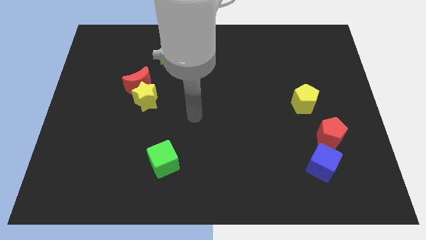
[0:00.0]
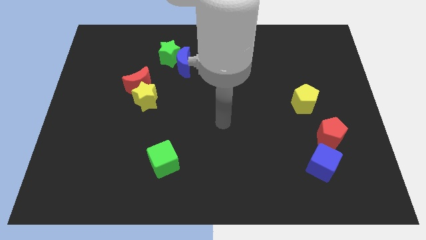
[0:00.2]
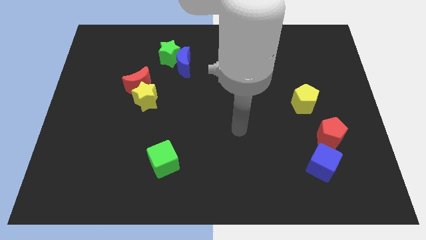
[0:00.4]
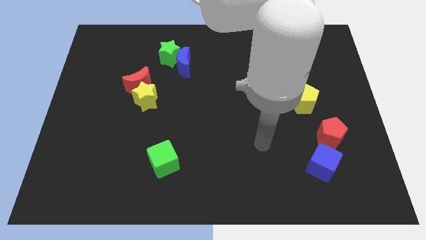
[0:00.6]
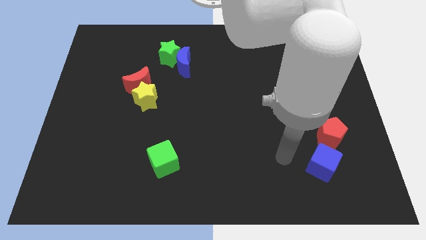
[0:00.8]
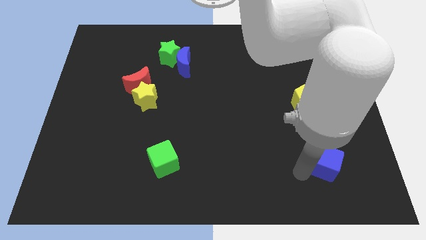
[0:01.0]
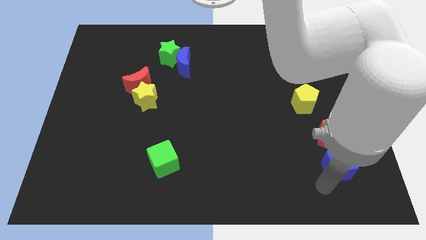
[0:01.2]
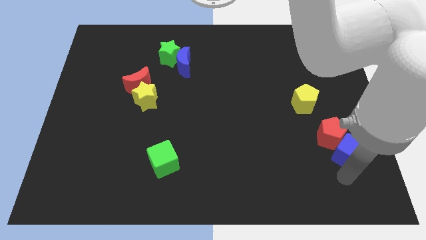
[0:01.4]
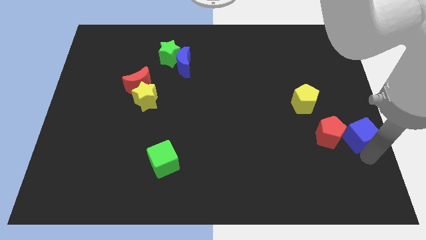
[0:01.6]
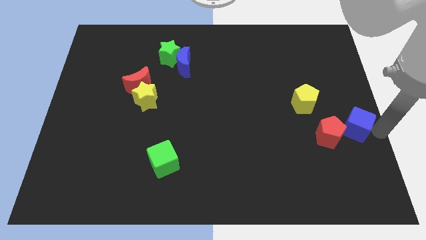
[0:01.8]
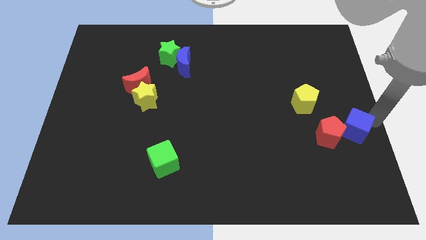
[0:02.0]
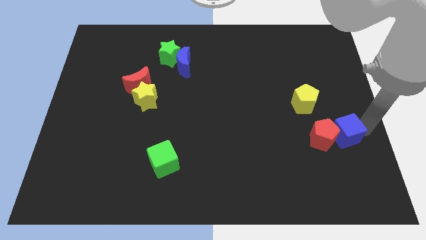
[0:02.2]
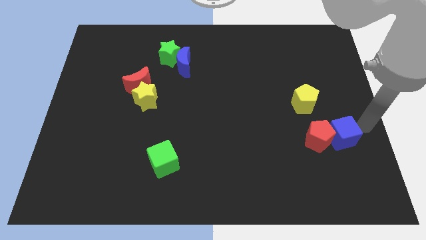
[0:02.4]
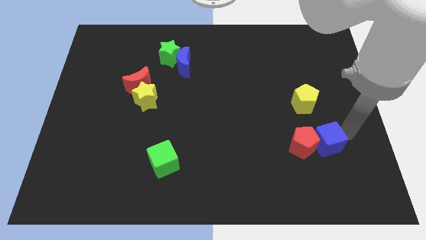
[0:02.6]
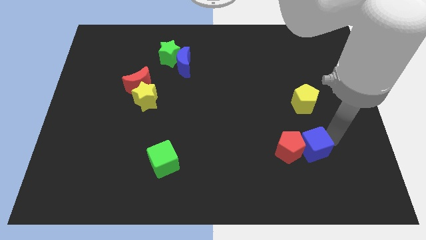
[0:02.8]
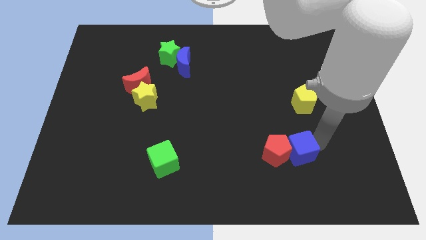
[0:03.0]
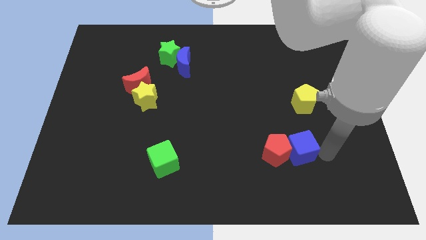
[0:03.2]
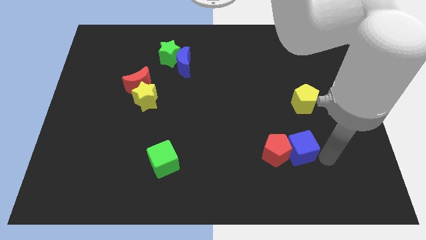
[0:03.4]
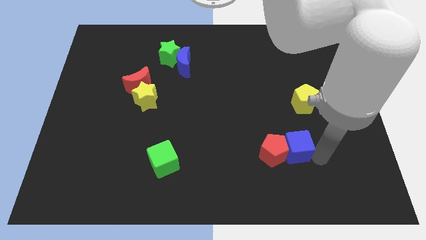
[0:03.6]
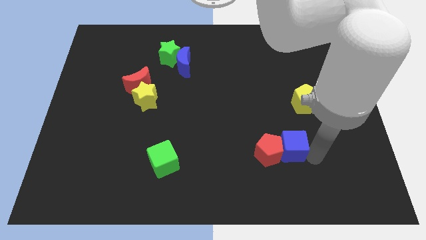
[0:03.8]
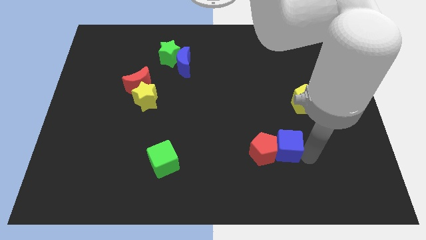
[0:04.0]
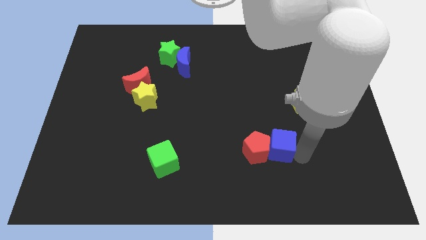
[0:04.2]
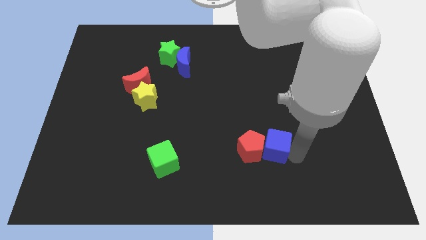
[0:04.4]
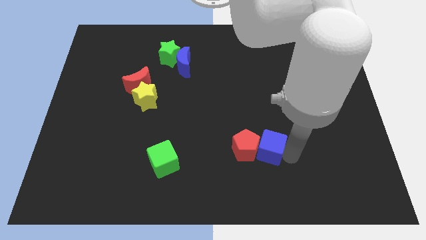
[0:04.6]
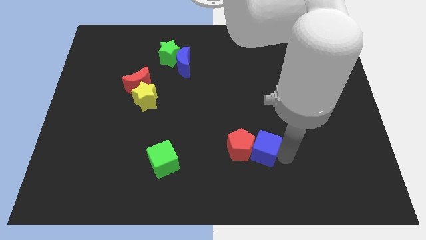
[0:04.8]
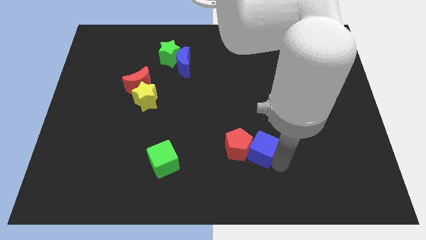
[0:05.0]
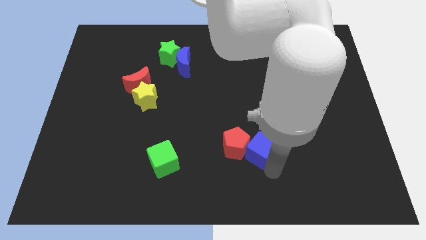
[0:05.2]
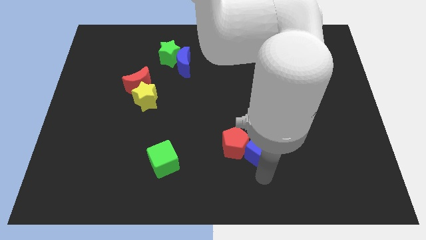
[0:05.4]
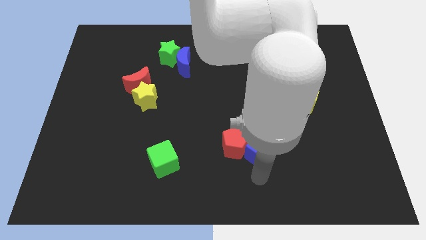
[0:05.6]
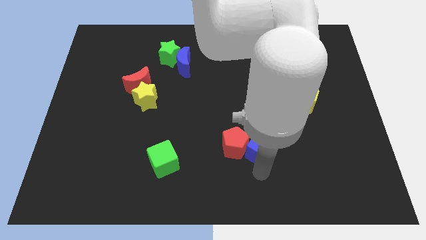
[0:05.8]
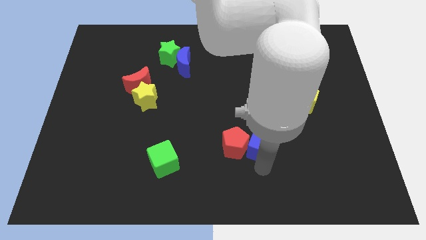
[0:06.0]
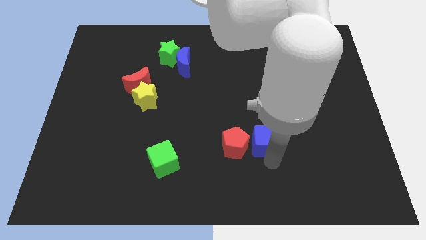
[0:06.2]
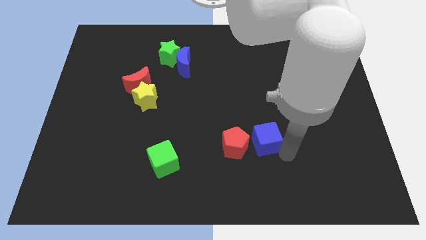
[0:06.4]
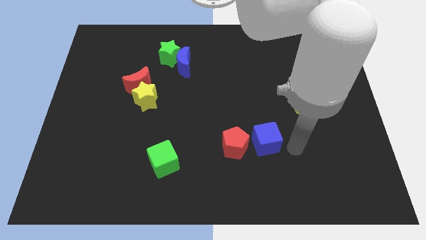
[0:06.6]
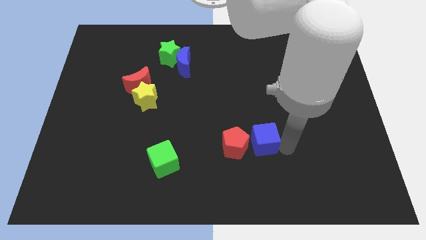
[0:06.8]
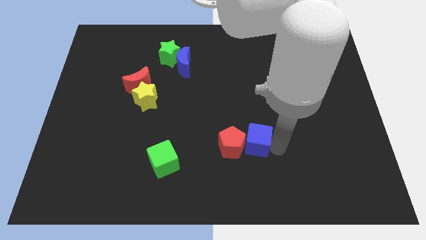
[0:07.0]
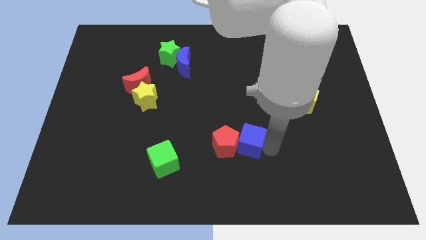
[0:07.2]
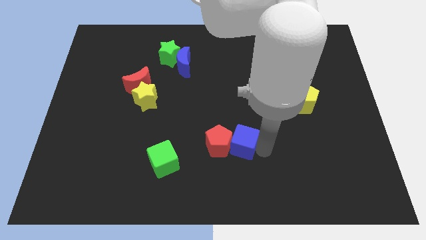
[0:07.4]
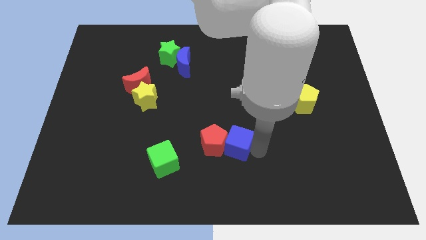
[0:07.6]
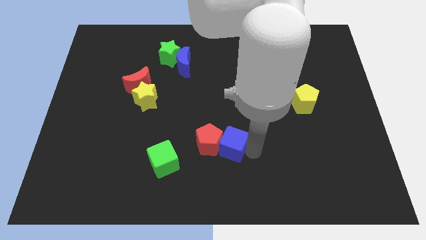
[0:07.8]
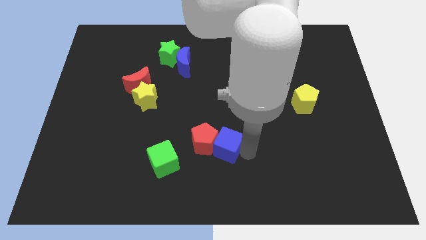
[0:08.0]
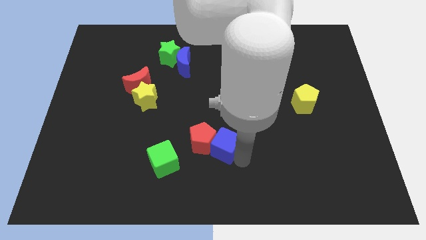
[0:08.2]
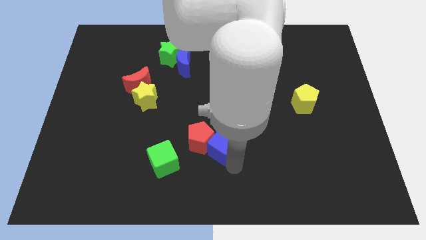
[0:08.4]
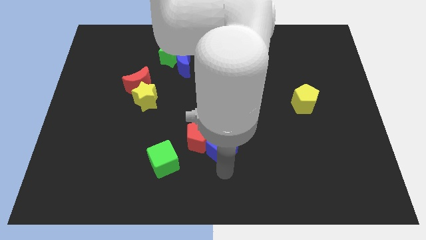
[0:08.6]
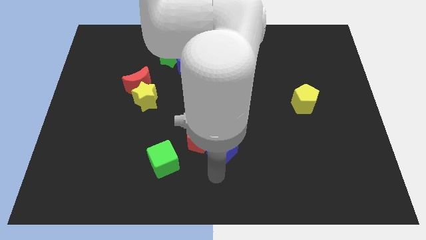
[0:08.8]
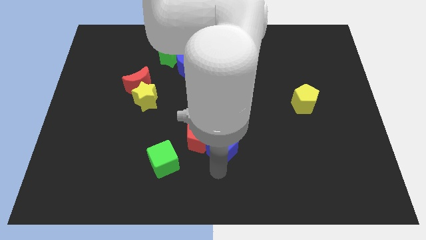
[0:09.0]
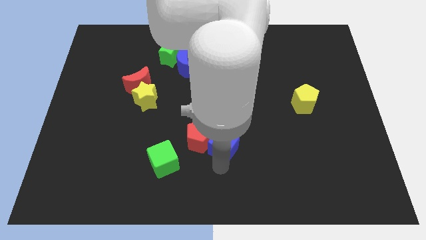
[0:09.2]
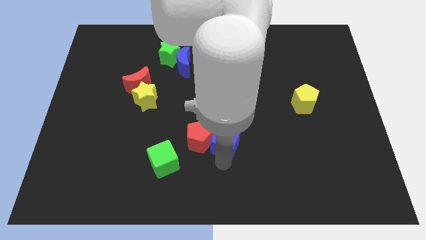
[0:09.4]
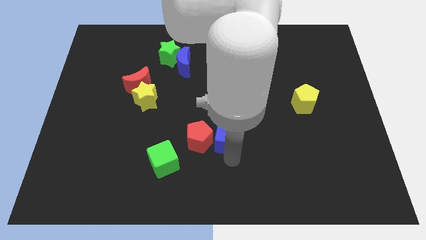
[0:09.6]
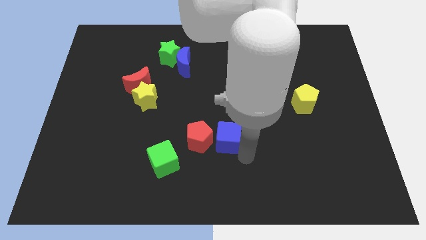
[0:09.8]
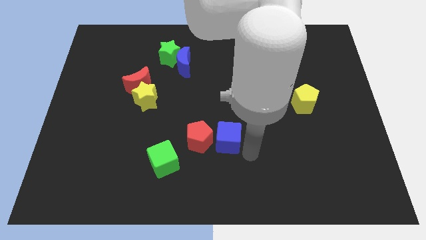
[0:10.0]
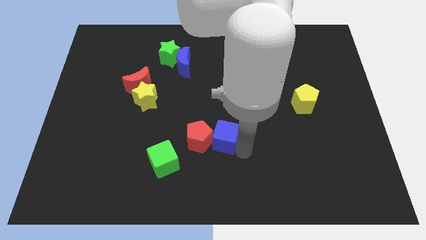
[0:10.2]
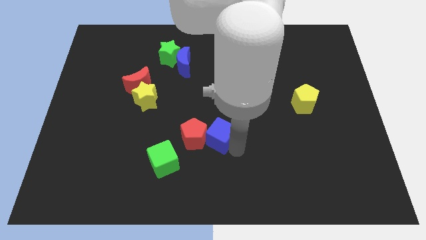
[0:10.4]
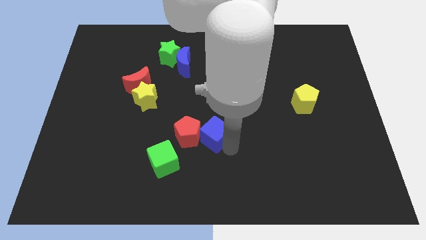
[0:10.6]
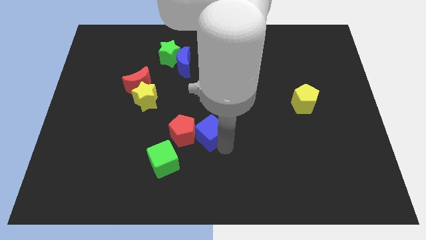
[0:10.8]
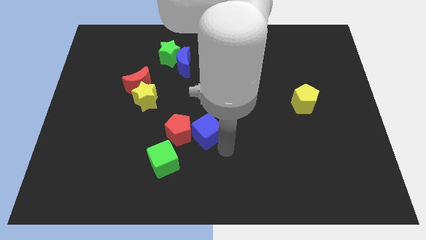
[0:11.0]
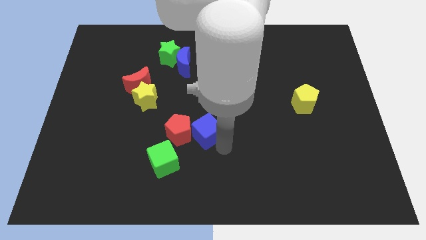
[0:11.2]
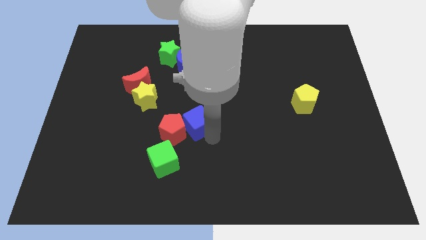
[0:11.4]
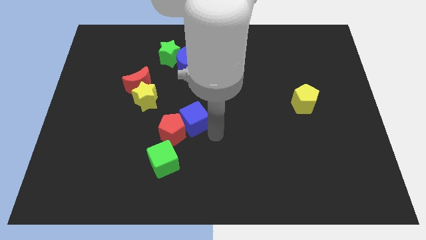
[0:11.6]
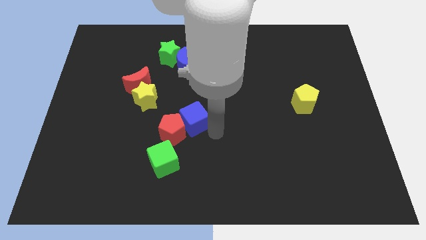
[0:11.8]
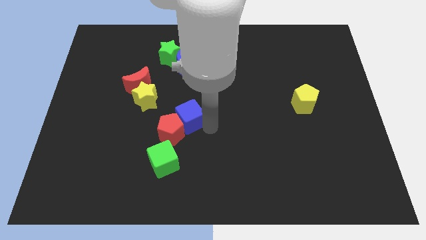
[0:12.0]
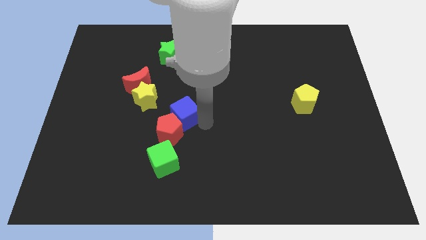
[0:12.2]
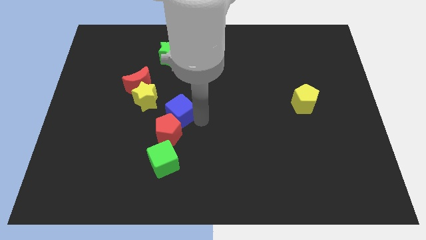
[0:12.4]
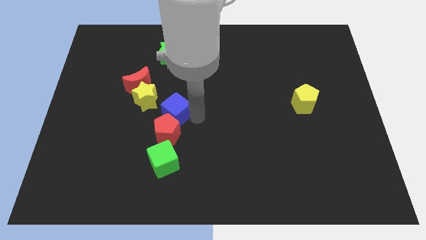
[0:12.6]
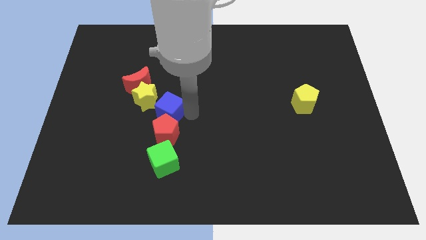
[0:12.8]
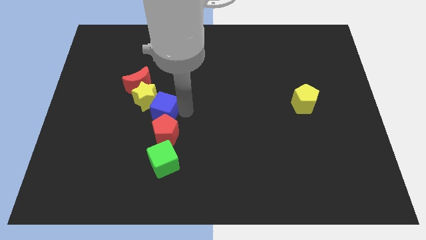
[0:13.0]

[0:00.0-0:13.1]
move the blue cube next to the yellow star

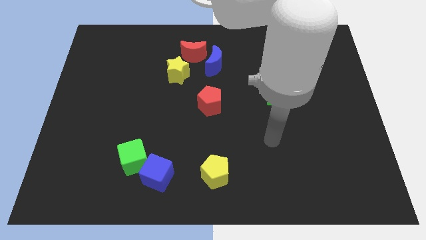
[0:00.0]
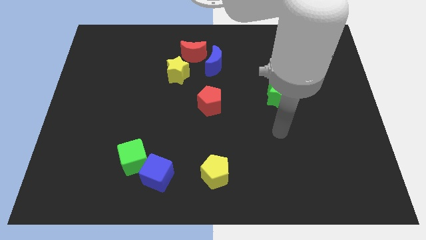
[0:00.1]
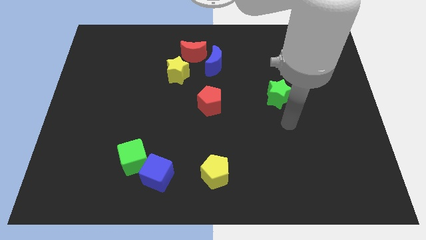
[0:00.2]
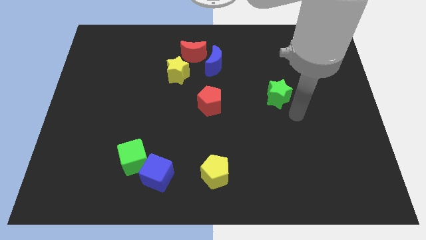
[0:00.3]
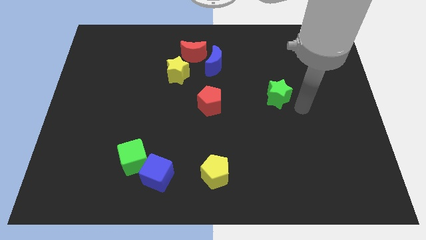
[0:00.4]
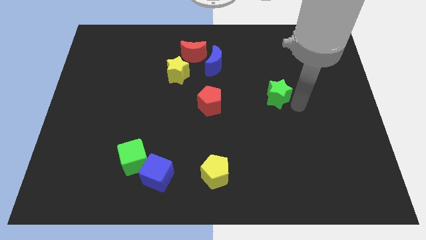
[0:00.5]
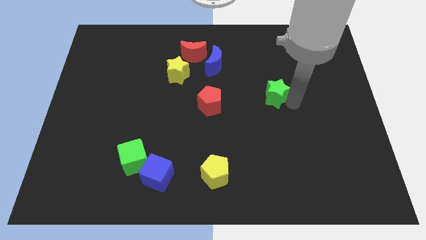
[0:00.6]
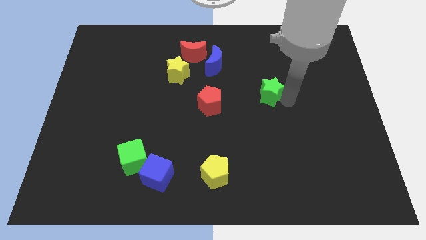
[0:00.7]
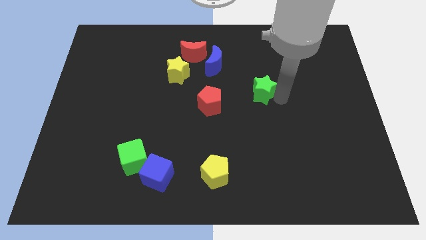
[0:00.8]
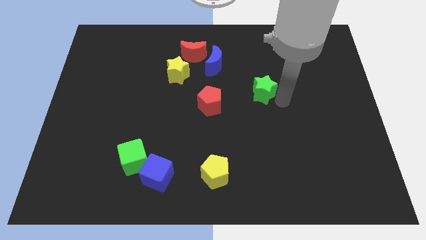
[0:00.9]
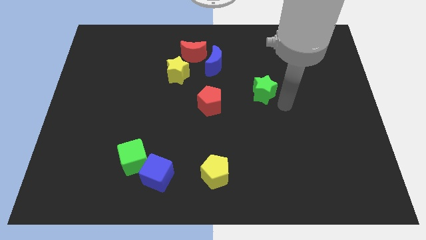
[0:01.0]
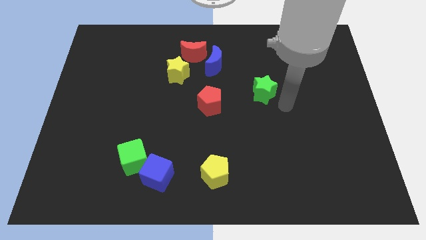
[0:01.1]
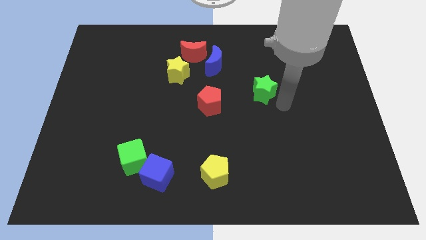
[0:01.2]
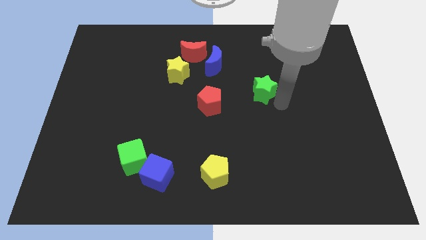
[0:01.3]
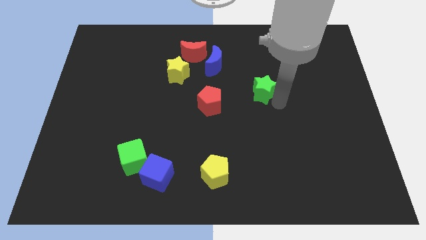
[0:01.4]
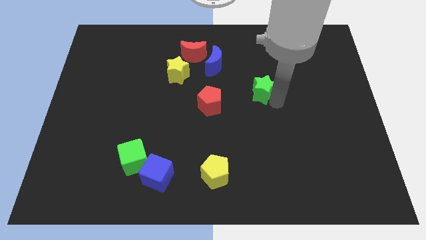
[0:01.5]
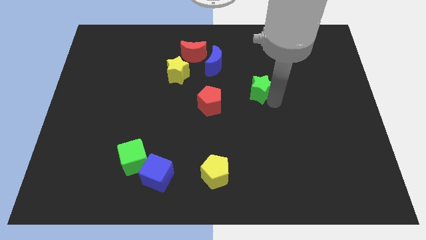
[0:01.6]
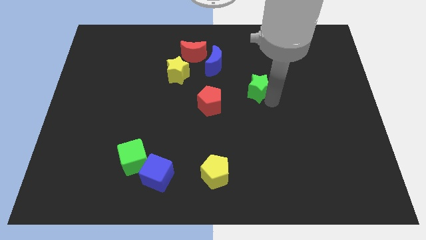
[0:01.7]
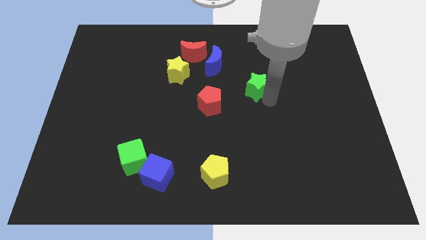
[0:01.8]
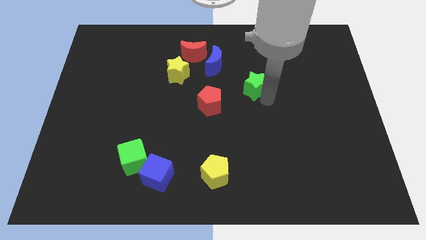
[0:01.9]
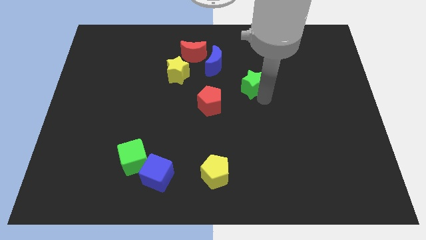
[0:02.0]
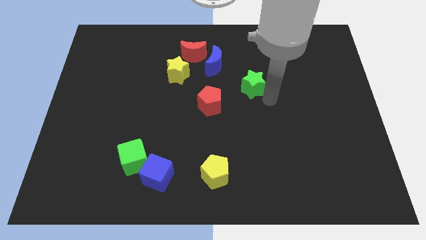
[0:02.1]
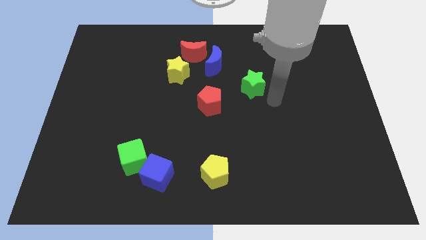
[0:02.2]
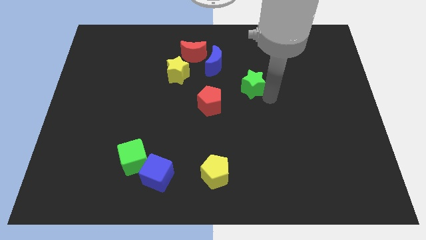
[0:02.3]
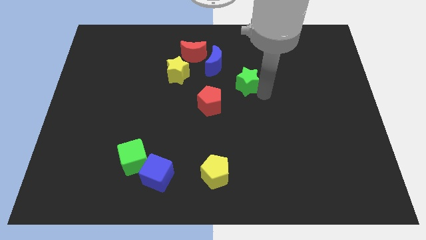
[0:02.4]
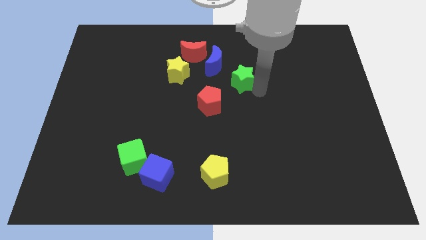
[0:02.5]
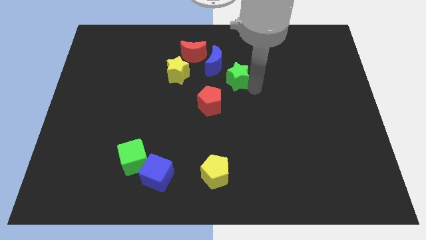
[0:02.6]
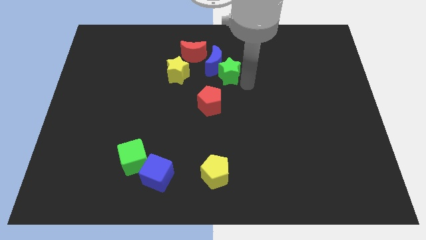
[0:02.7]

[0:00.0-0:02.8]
push the green star towards the blue moon
